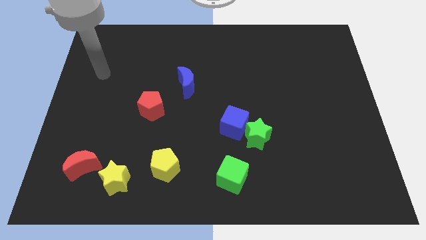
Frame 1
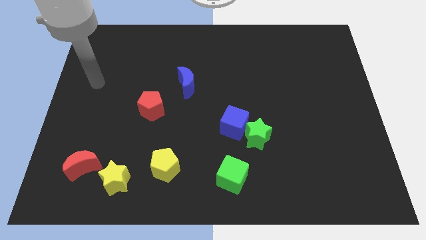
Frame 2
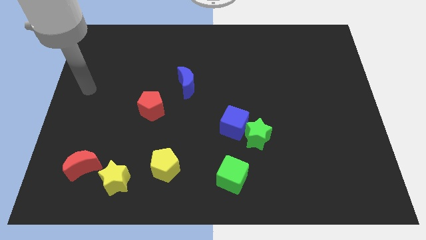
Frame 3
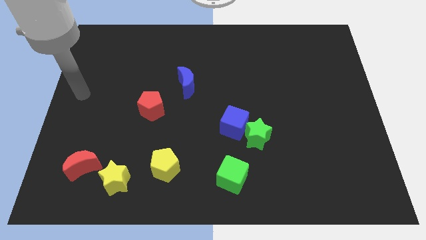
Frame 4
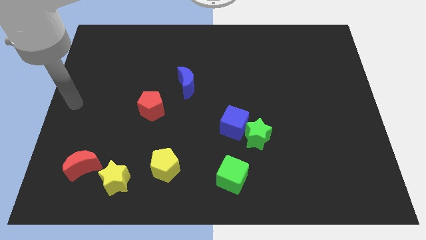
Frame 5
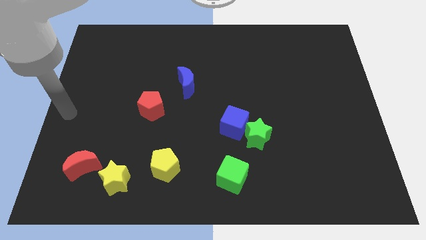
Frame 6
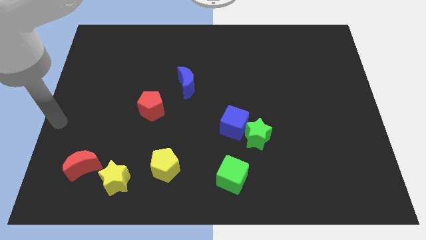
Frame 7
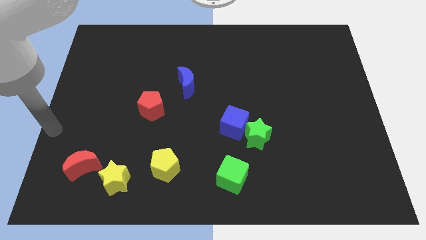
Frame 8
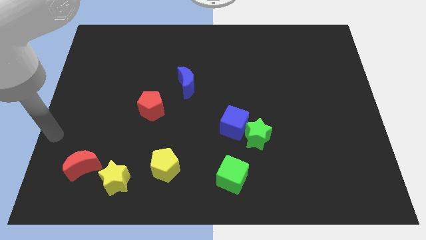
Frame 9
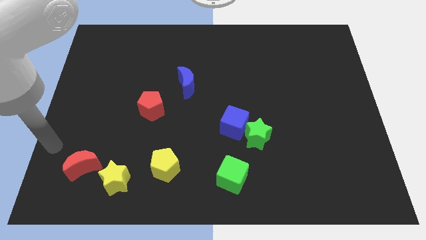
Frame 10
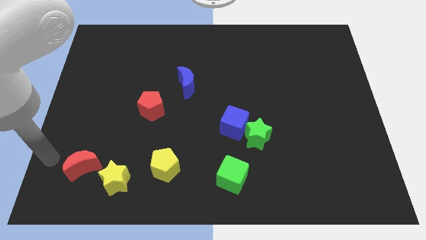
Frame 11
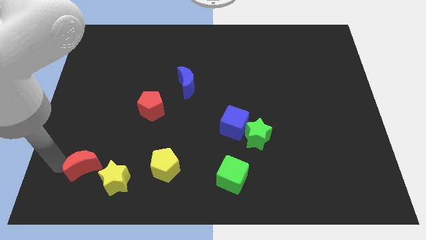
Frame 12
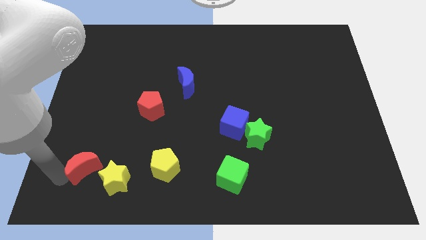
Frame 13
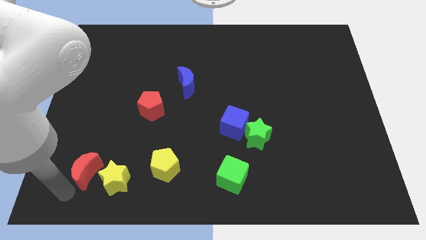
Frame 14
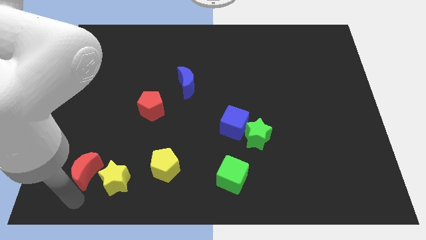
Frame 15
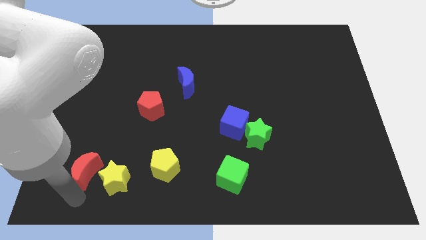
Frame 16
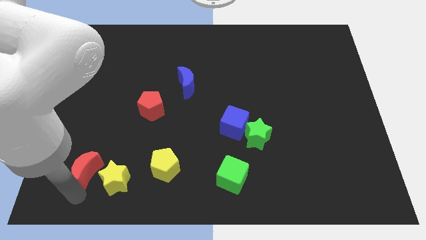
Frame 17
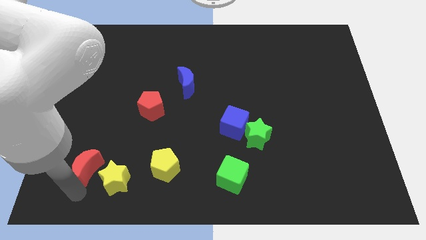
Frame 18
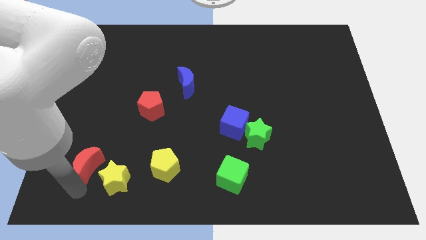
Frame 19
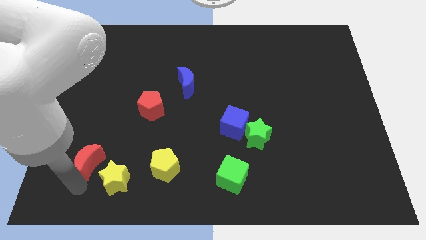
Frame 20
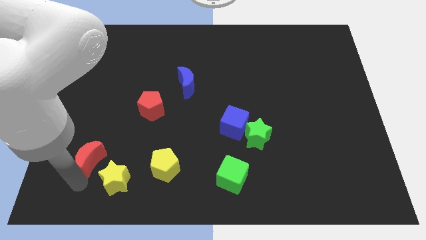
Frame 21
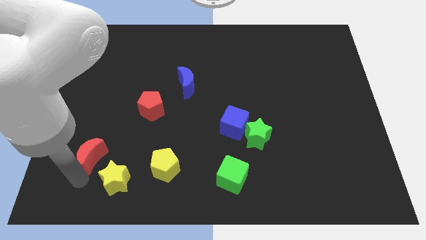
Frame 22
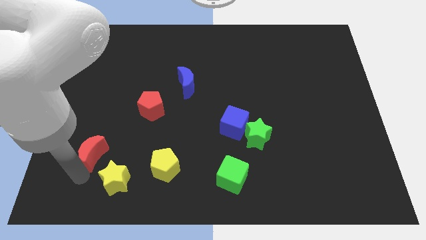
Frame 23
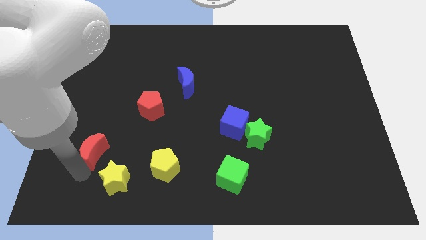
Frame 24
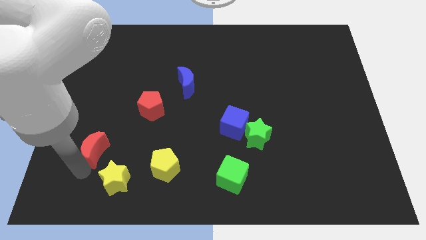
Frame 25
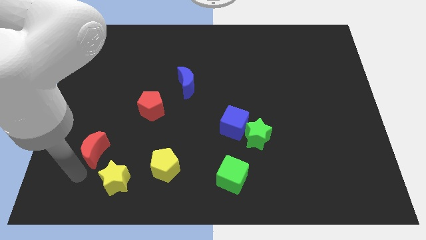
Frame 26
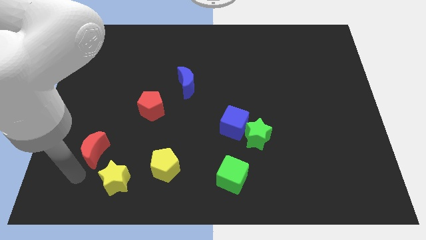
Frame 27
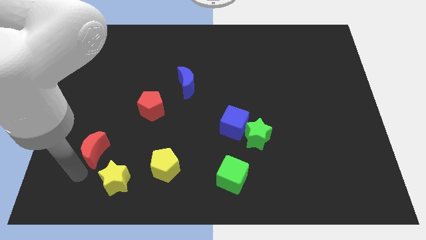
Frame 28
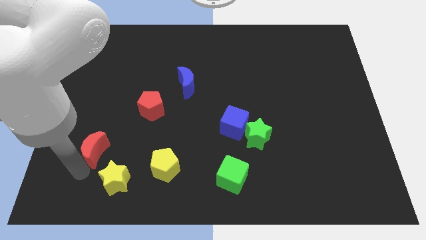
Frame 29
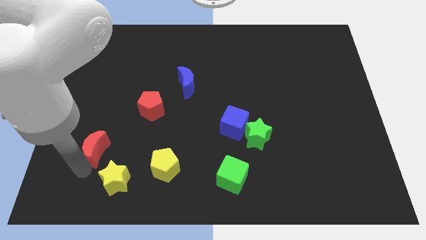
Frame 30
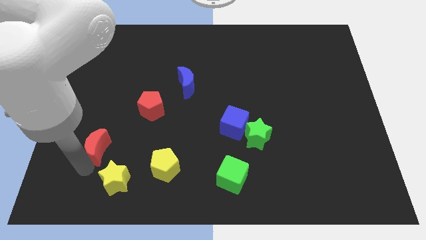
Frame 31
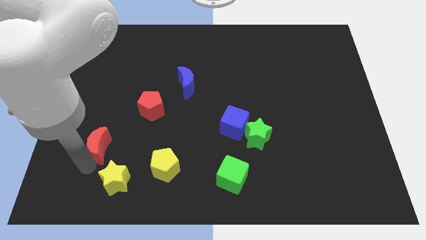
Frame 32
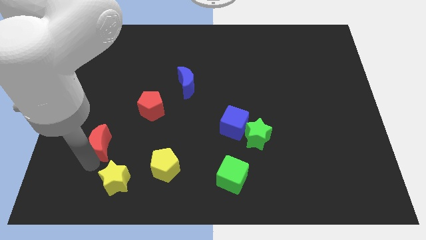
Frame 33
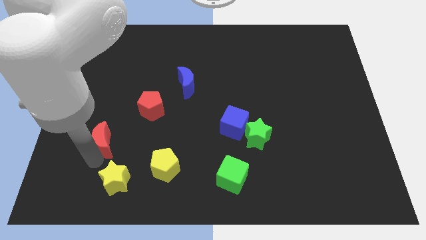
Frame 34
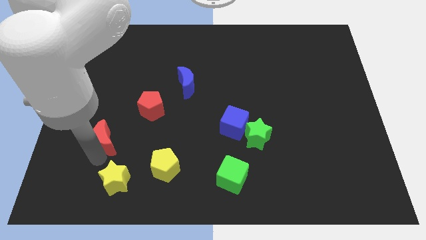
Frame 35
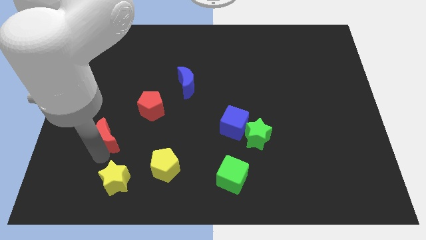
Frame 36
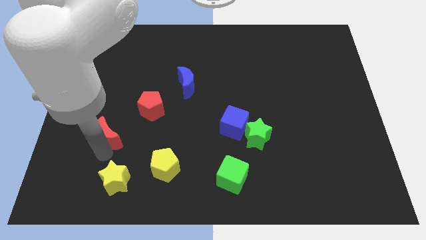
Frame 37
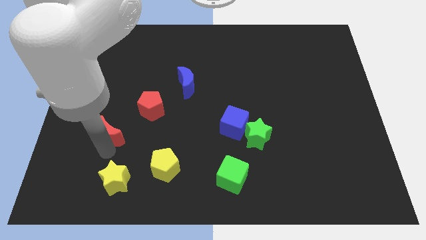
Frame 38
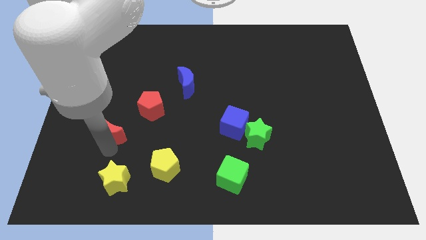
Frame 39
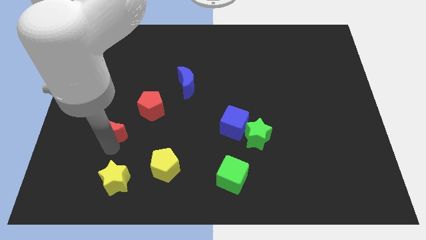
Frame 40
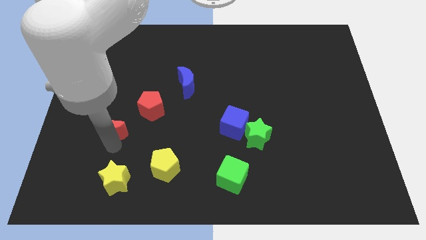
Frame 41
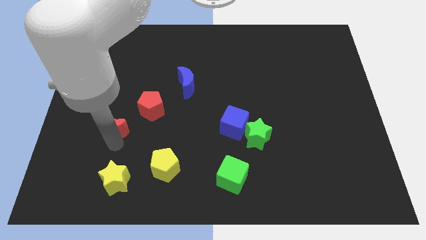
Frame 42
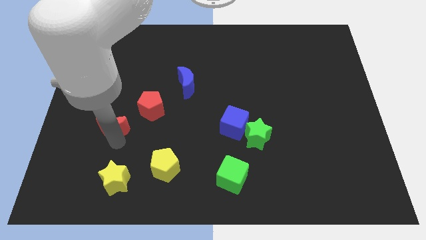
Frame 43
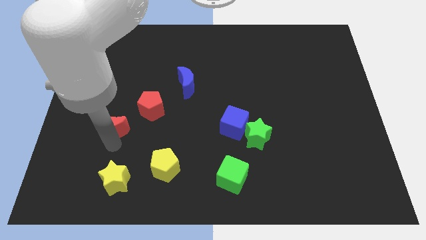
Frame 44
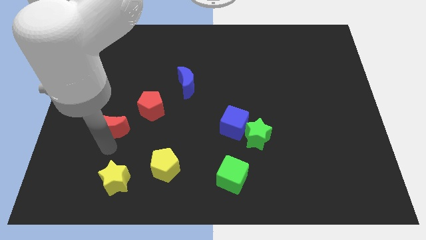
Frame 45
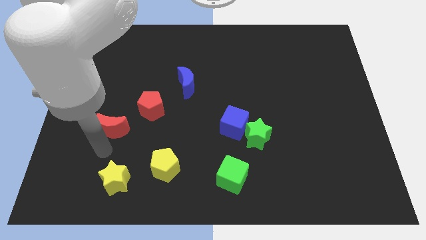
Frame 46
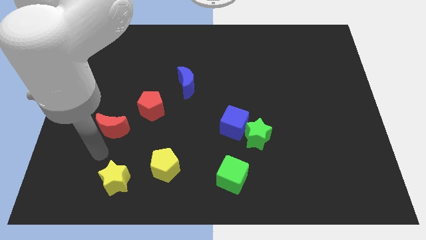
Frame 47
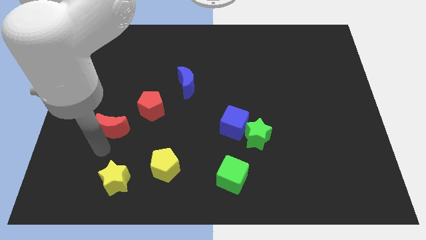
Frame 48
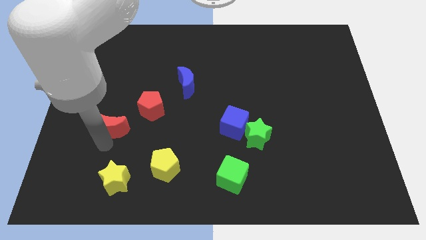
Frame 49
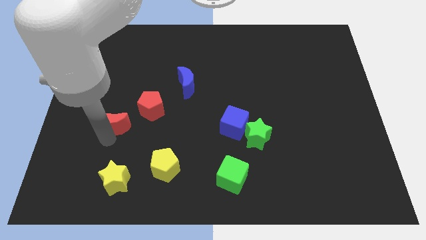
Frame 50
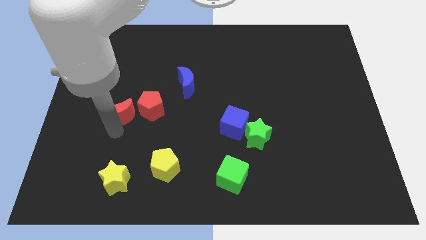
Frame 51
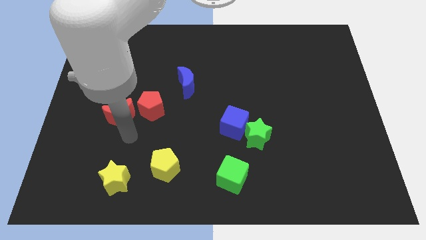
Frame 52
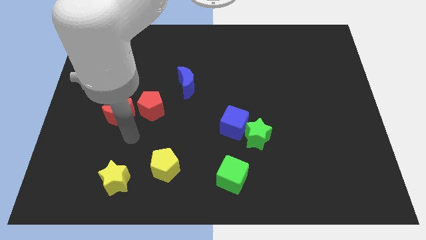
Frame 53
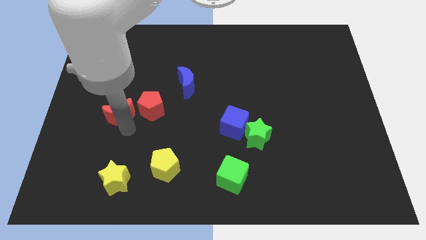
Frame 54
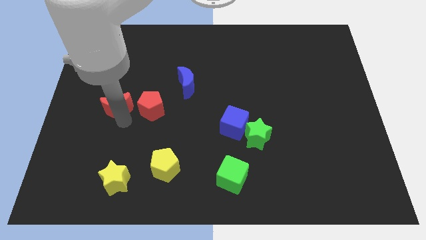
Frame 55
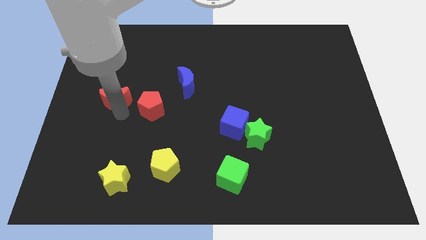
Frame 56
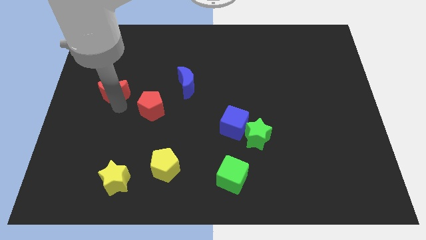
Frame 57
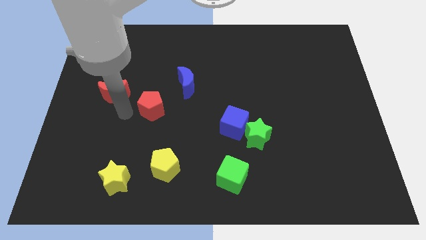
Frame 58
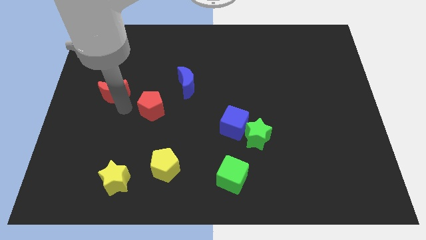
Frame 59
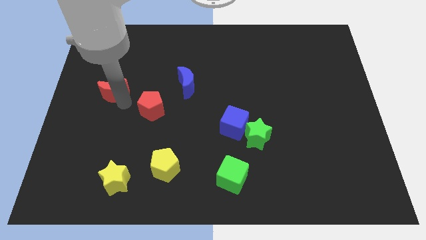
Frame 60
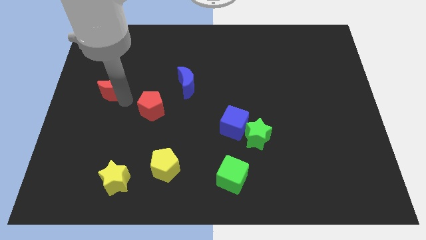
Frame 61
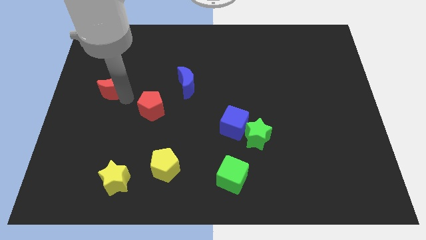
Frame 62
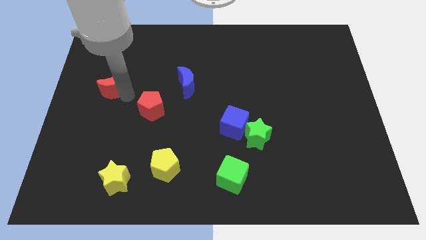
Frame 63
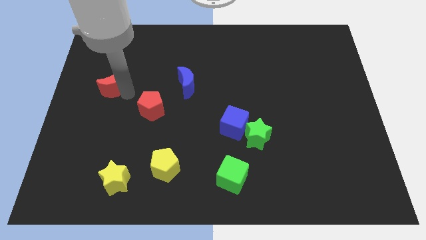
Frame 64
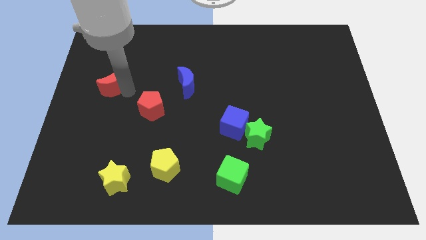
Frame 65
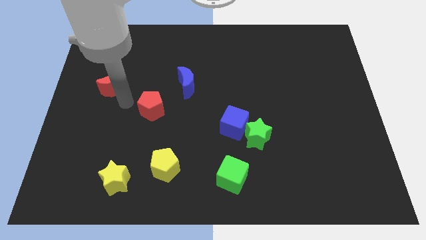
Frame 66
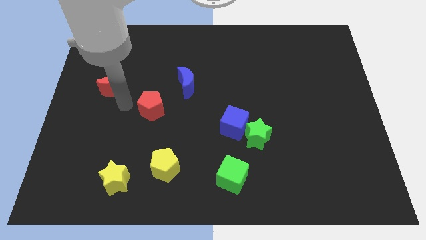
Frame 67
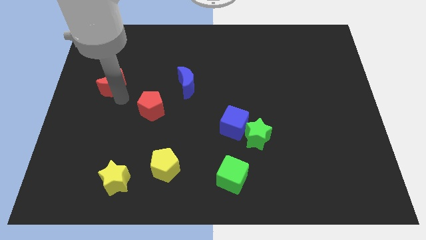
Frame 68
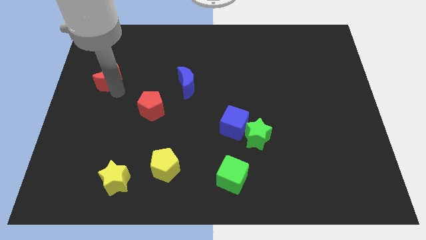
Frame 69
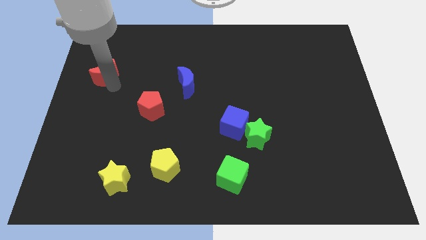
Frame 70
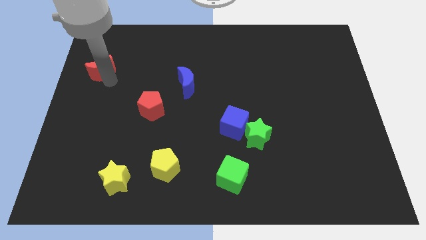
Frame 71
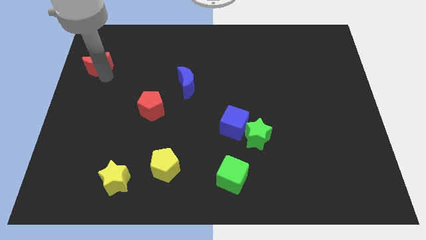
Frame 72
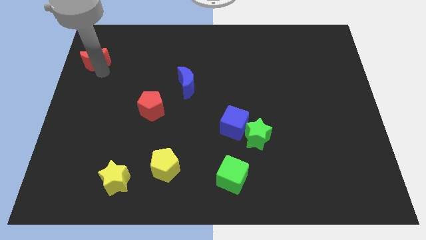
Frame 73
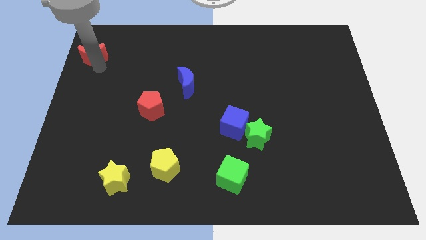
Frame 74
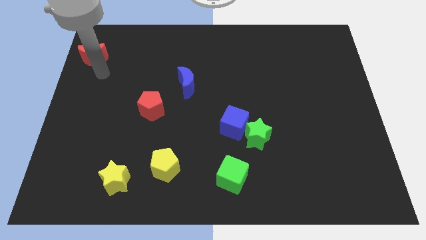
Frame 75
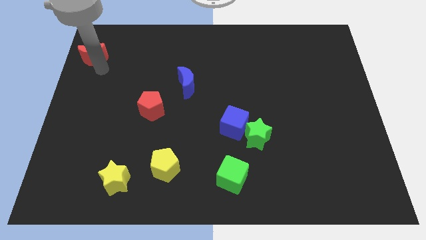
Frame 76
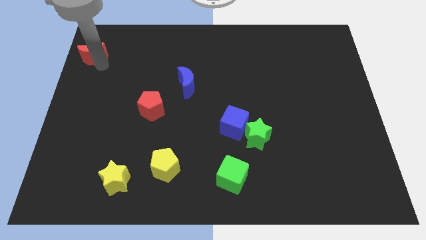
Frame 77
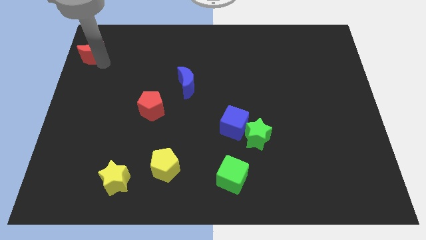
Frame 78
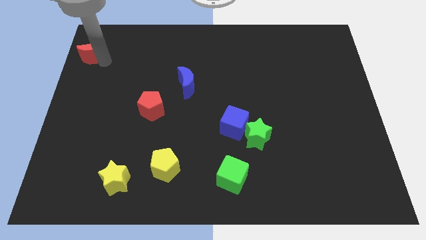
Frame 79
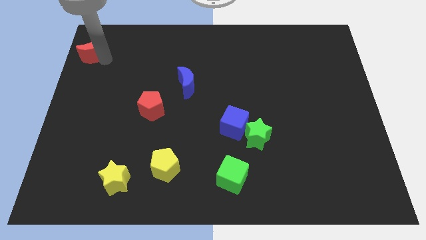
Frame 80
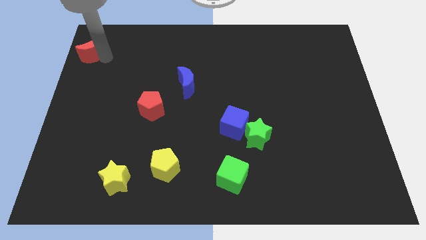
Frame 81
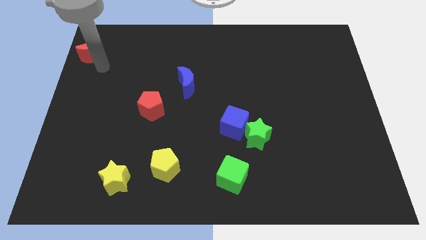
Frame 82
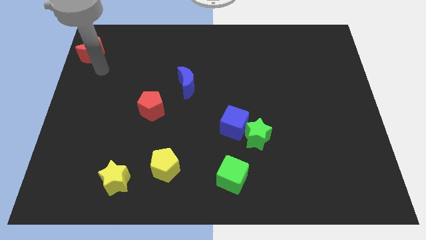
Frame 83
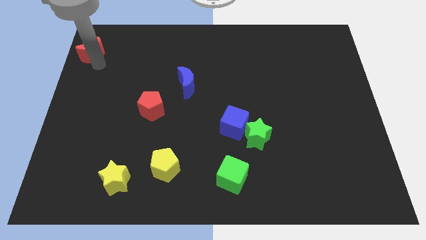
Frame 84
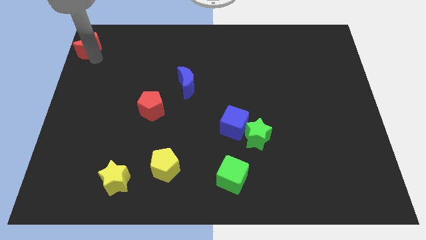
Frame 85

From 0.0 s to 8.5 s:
move the red moon to the top left
